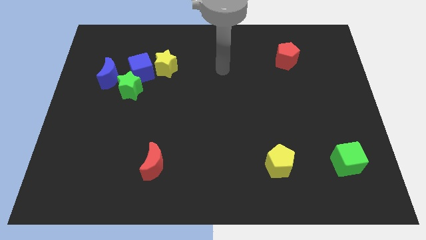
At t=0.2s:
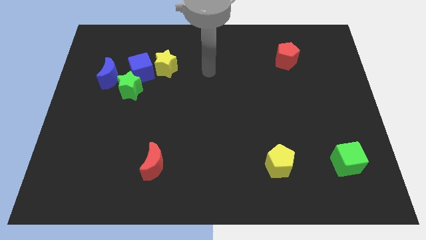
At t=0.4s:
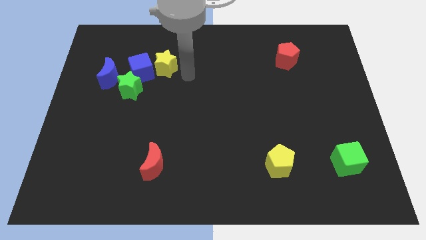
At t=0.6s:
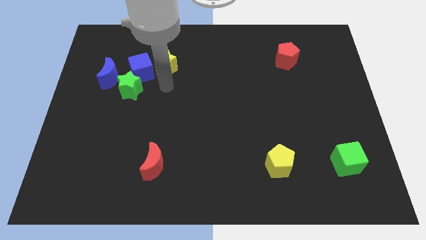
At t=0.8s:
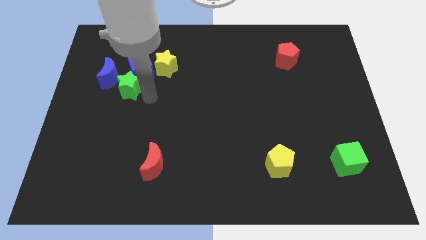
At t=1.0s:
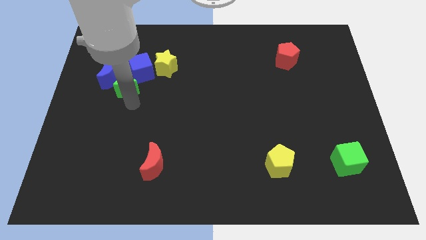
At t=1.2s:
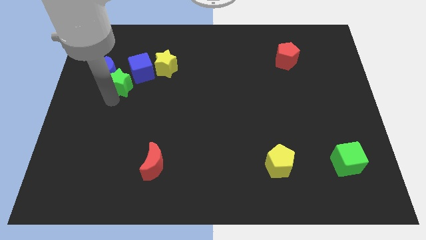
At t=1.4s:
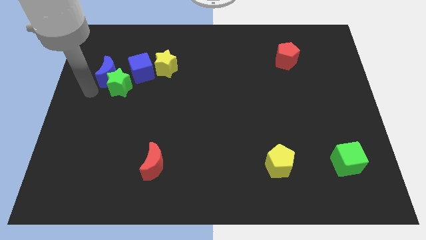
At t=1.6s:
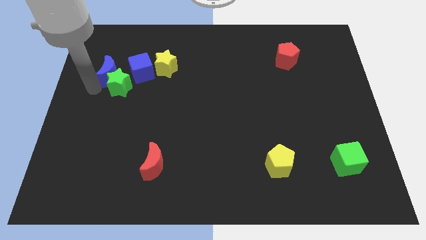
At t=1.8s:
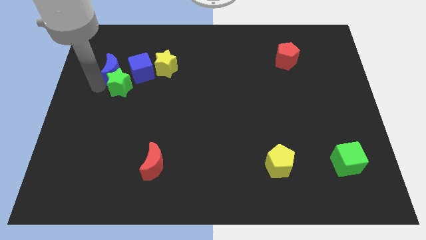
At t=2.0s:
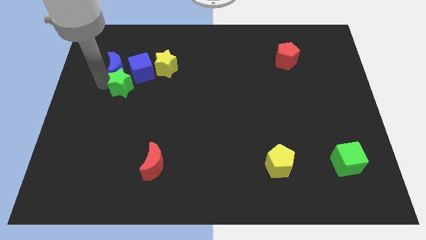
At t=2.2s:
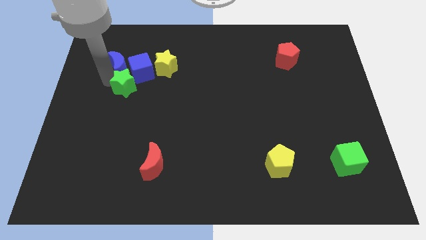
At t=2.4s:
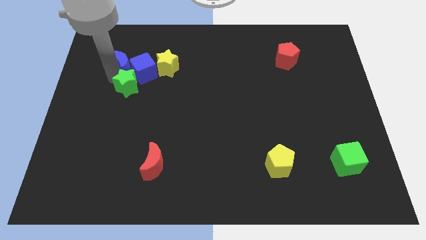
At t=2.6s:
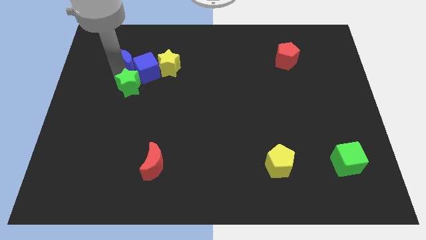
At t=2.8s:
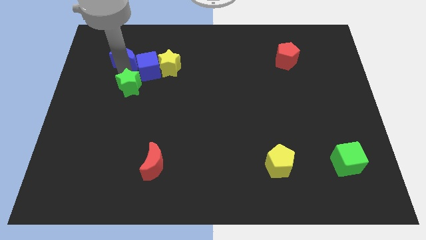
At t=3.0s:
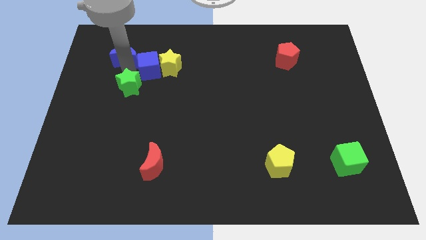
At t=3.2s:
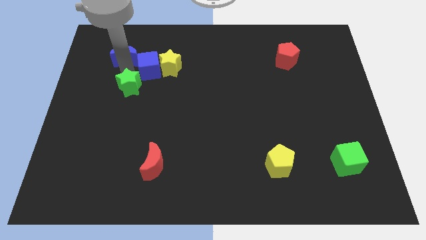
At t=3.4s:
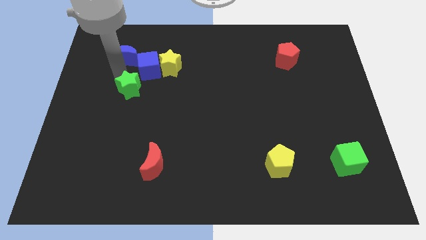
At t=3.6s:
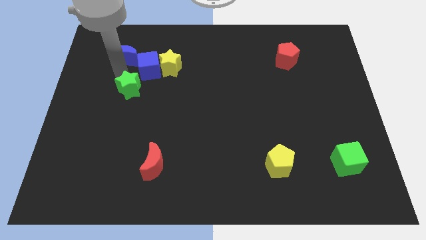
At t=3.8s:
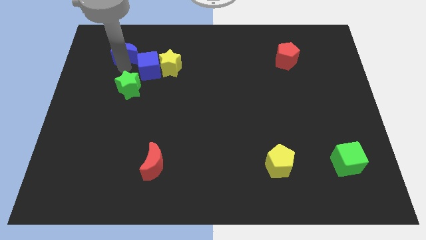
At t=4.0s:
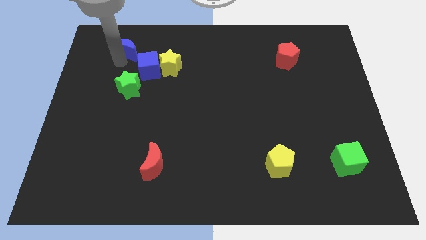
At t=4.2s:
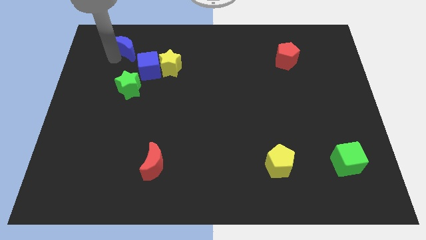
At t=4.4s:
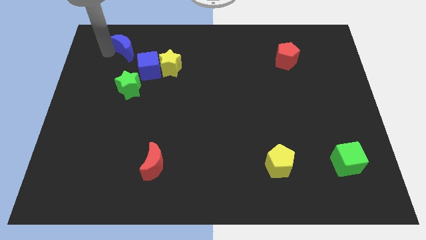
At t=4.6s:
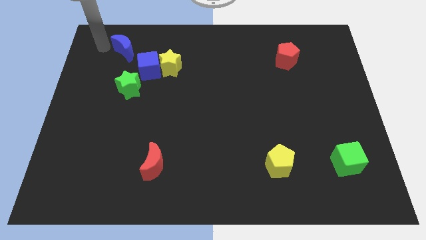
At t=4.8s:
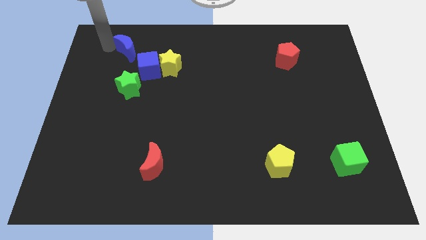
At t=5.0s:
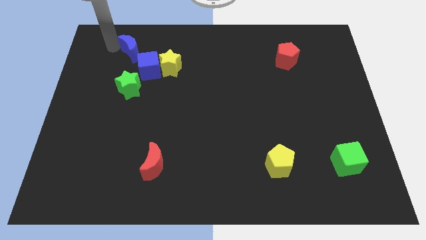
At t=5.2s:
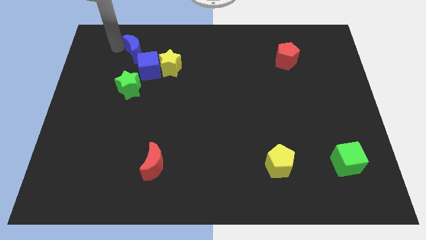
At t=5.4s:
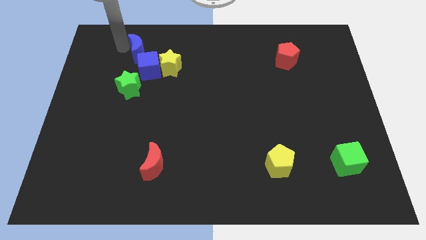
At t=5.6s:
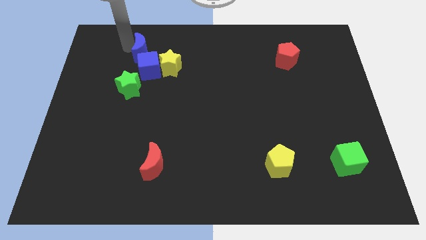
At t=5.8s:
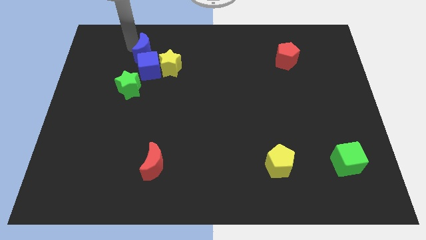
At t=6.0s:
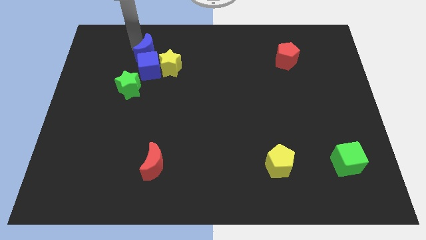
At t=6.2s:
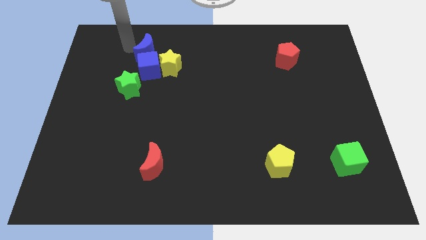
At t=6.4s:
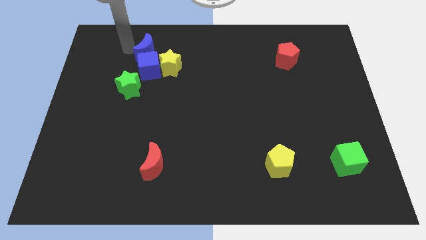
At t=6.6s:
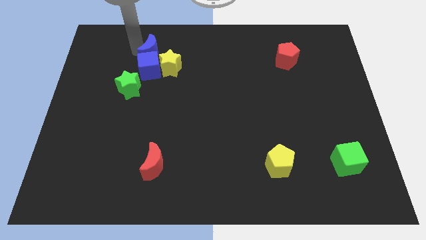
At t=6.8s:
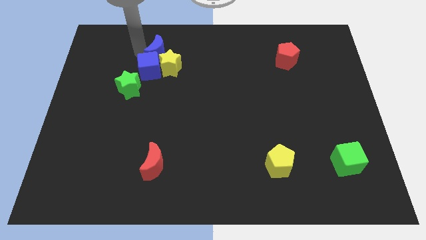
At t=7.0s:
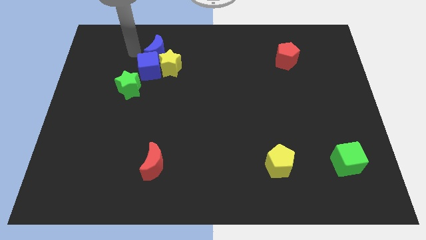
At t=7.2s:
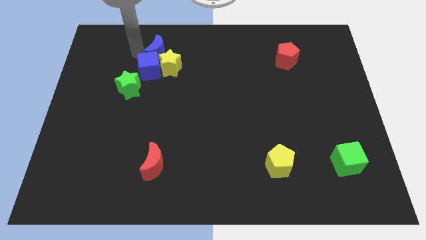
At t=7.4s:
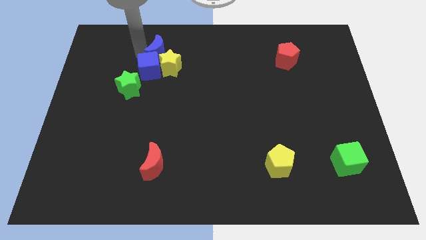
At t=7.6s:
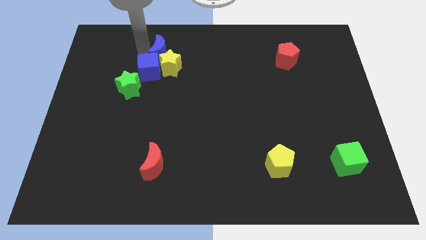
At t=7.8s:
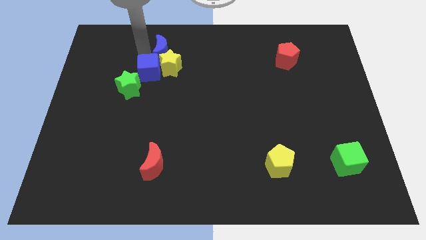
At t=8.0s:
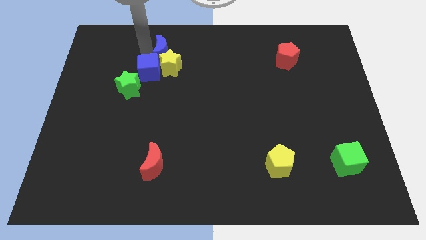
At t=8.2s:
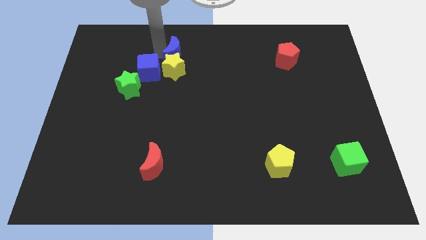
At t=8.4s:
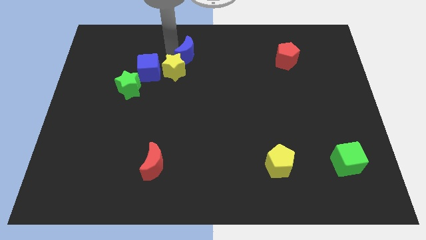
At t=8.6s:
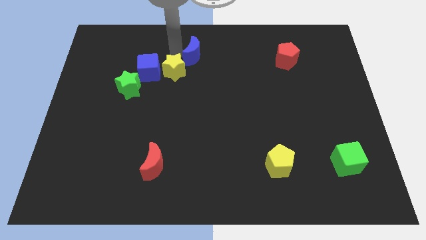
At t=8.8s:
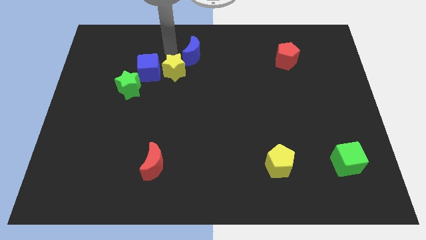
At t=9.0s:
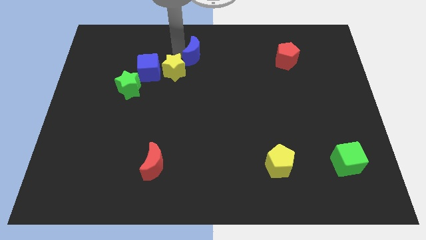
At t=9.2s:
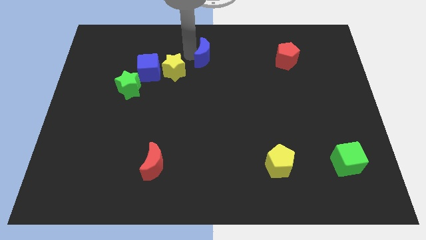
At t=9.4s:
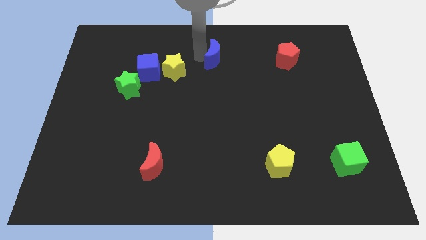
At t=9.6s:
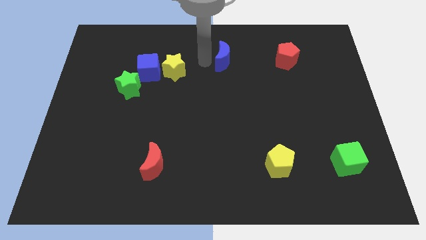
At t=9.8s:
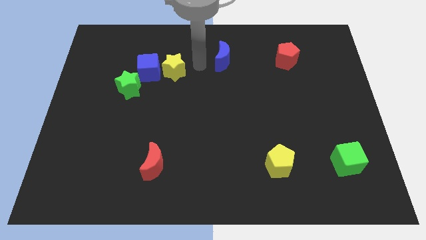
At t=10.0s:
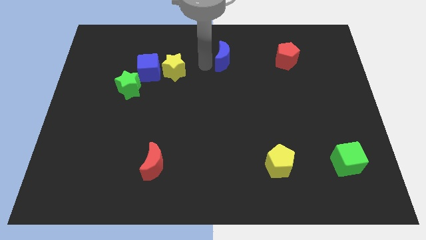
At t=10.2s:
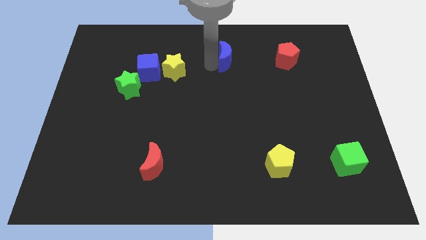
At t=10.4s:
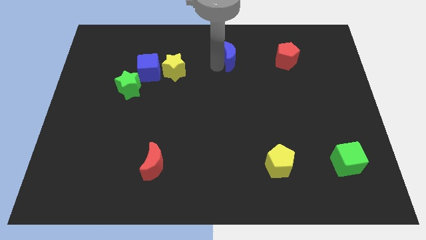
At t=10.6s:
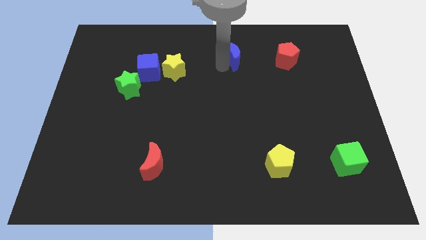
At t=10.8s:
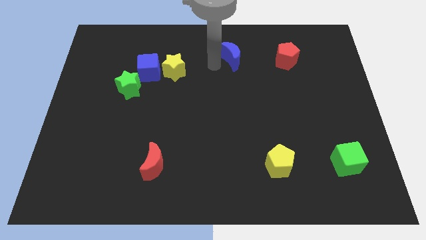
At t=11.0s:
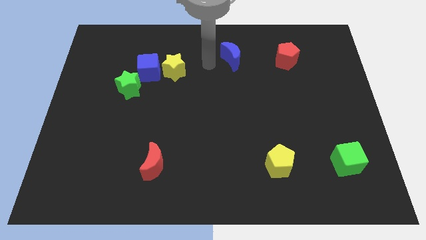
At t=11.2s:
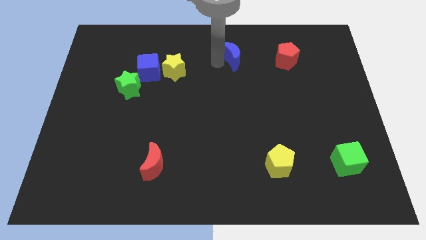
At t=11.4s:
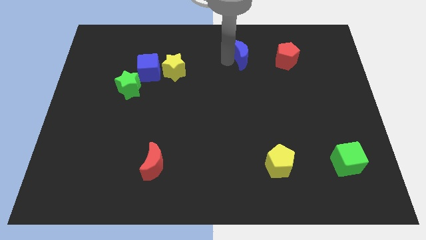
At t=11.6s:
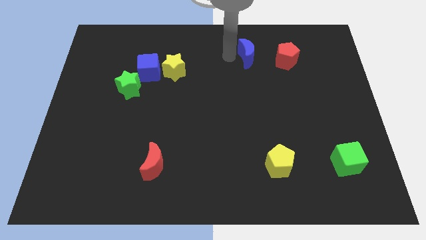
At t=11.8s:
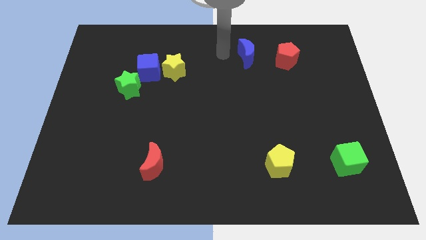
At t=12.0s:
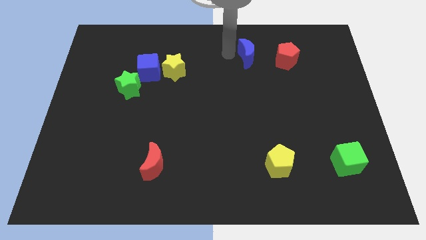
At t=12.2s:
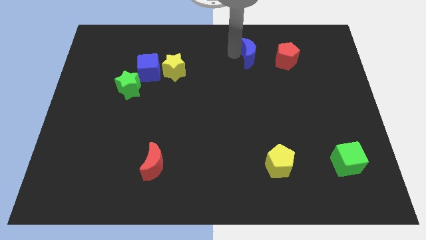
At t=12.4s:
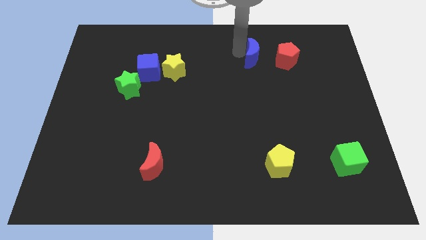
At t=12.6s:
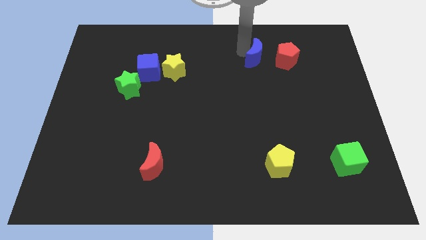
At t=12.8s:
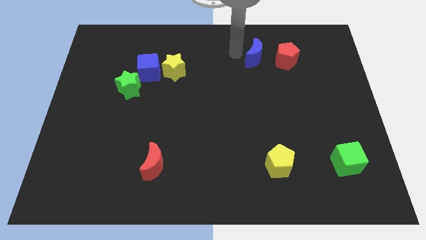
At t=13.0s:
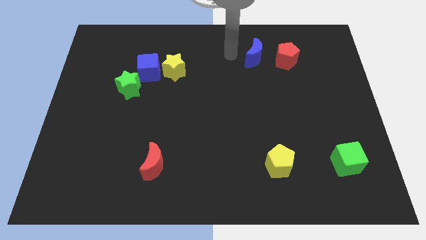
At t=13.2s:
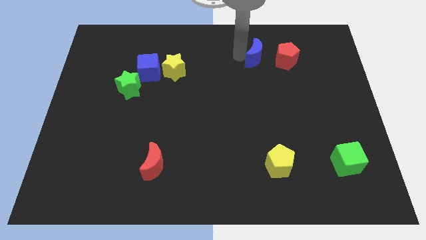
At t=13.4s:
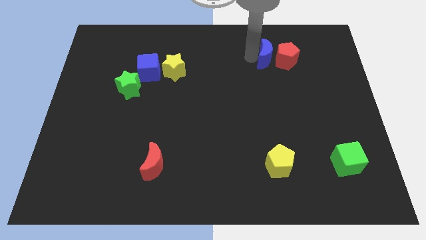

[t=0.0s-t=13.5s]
put the blue moon close to the red pentagon

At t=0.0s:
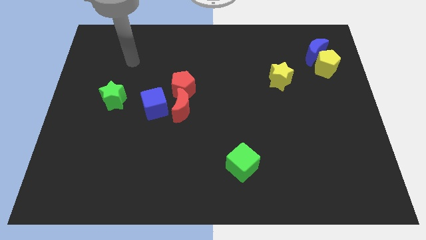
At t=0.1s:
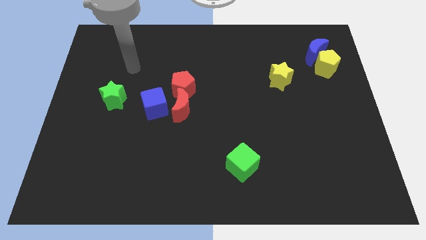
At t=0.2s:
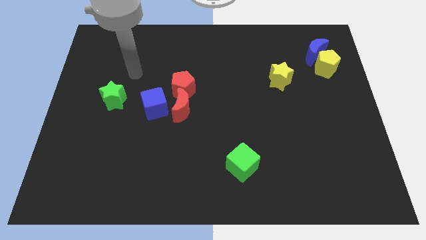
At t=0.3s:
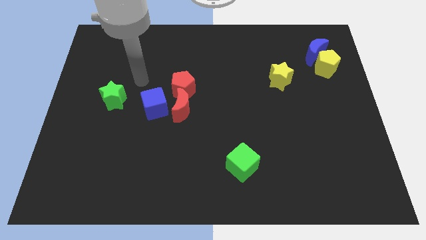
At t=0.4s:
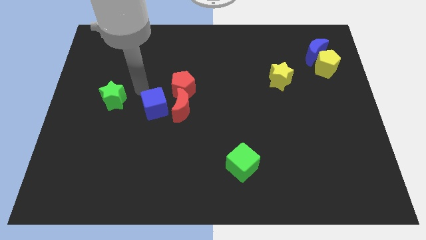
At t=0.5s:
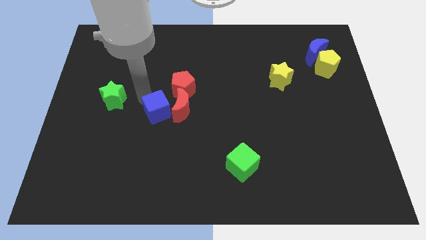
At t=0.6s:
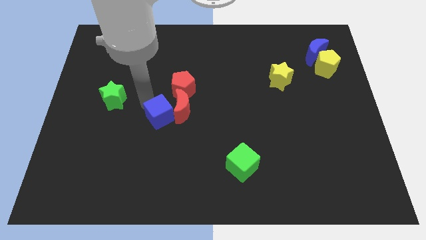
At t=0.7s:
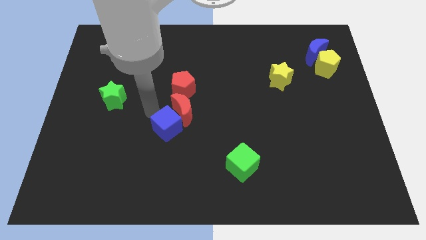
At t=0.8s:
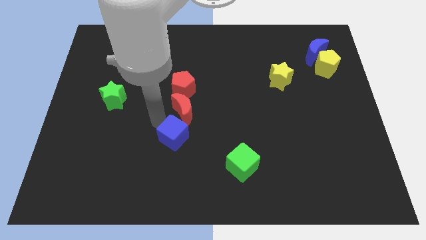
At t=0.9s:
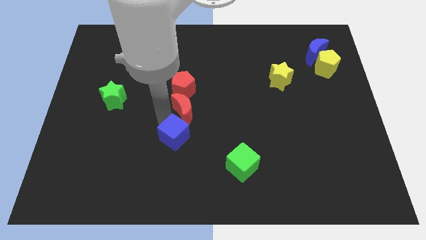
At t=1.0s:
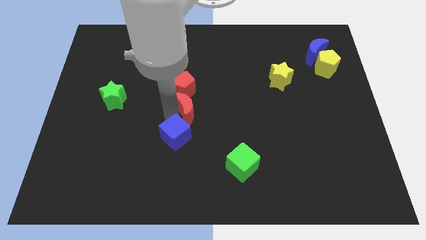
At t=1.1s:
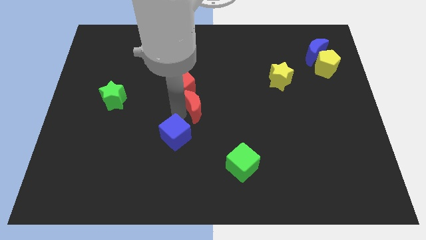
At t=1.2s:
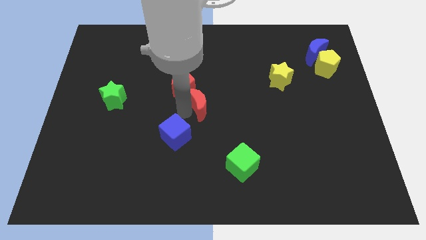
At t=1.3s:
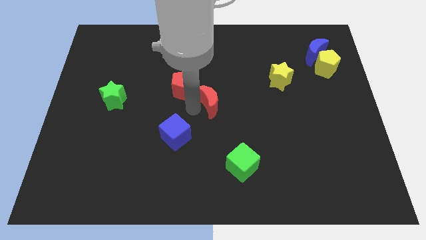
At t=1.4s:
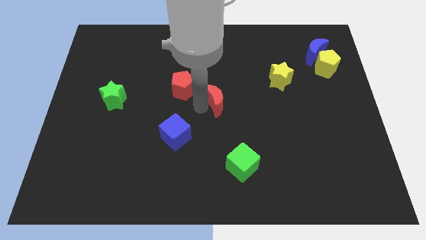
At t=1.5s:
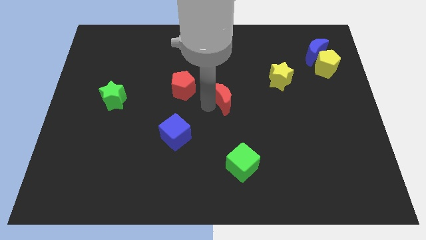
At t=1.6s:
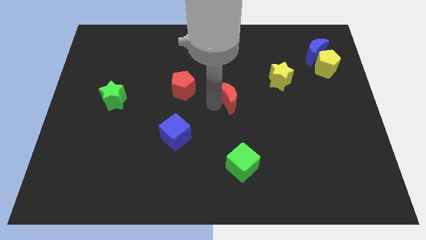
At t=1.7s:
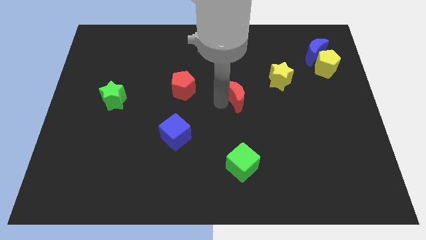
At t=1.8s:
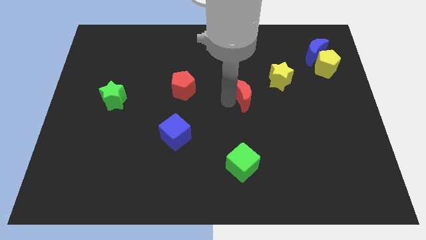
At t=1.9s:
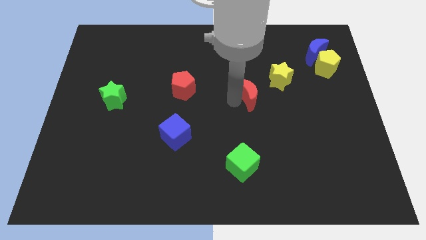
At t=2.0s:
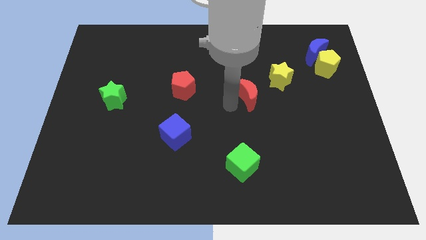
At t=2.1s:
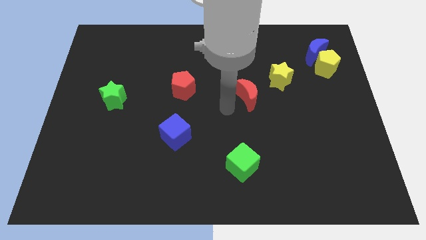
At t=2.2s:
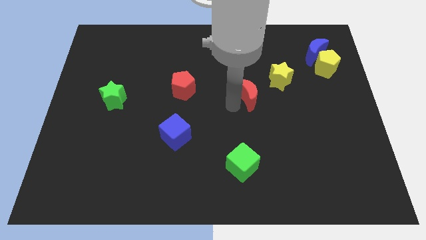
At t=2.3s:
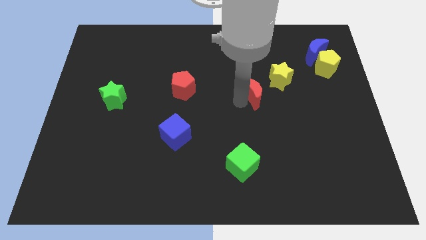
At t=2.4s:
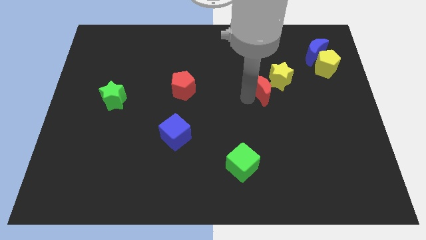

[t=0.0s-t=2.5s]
slide the red moon towards the yellow star
